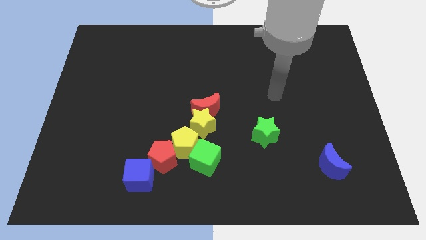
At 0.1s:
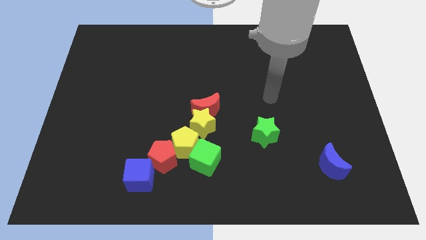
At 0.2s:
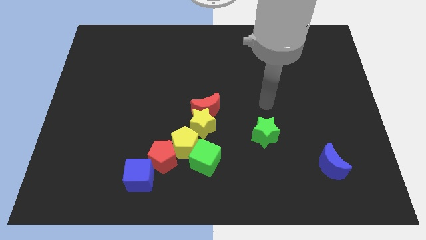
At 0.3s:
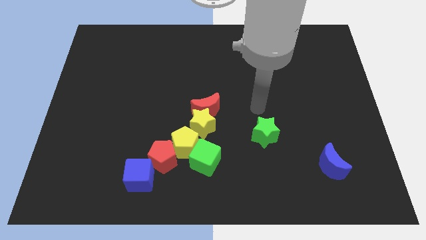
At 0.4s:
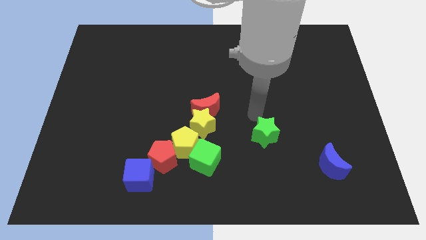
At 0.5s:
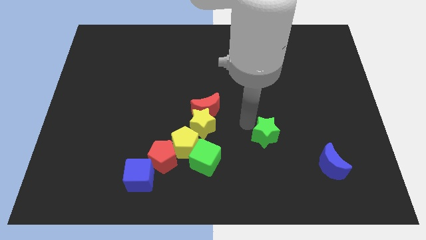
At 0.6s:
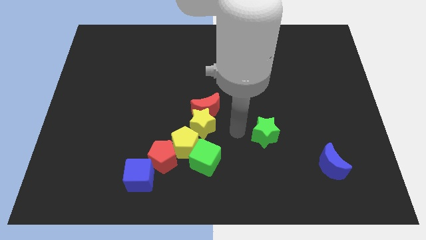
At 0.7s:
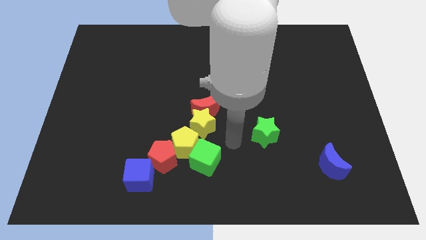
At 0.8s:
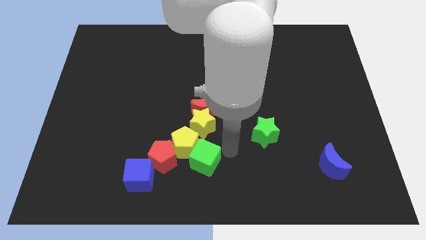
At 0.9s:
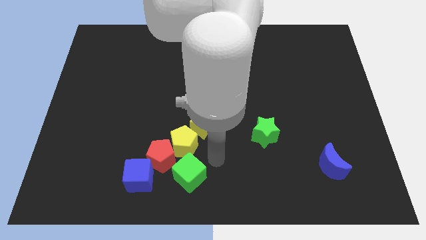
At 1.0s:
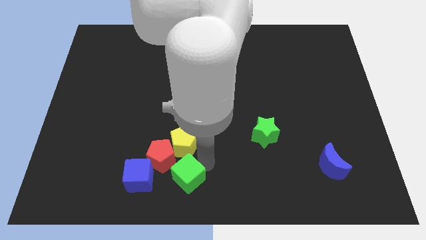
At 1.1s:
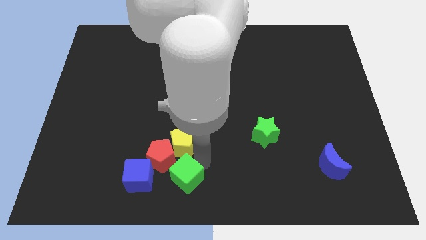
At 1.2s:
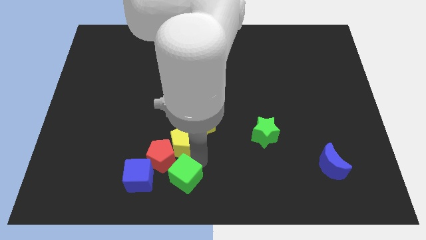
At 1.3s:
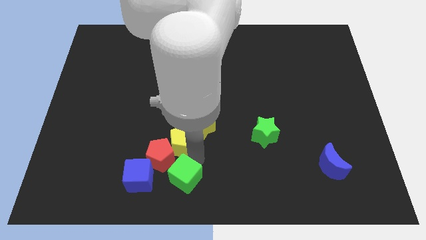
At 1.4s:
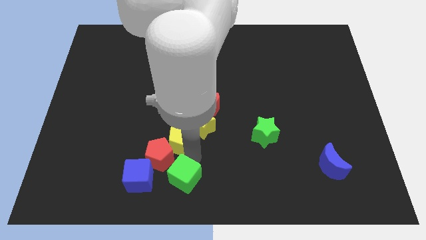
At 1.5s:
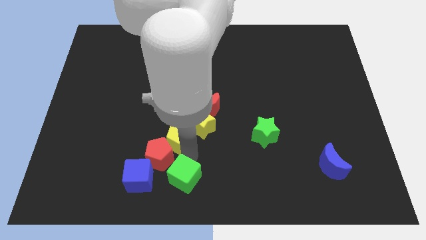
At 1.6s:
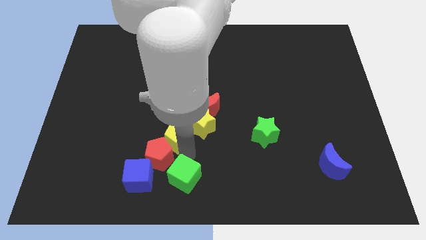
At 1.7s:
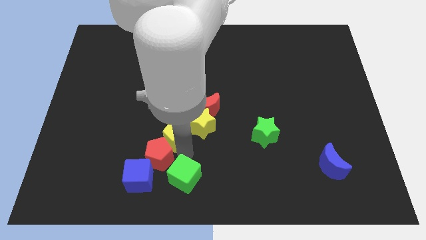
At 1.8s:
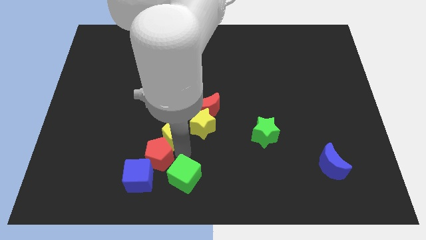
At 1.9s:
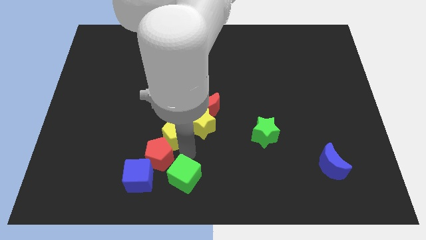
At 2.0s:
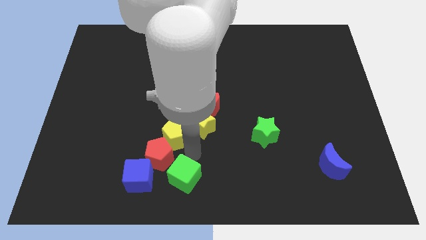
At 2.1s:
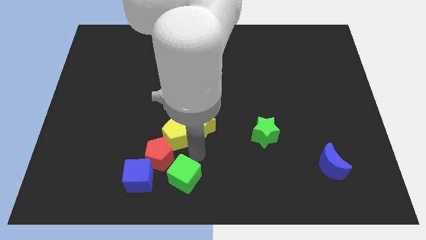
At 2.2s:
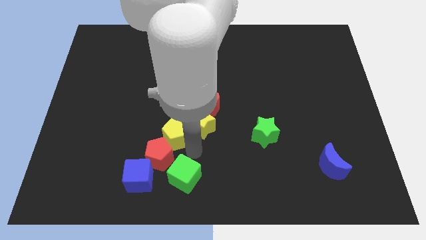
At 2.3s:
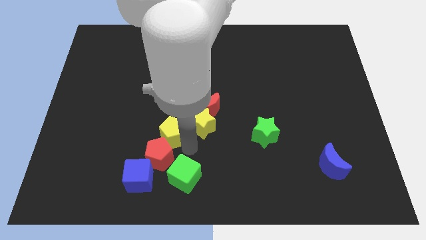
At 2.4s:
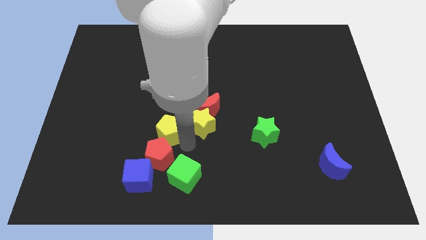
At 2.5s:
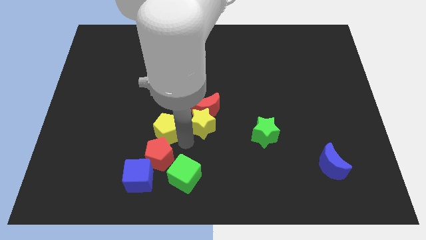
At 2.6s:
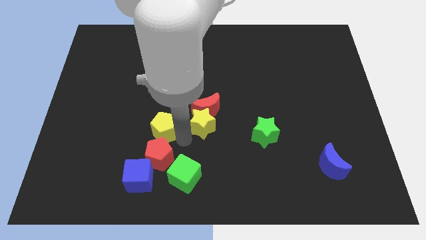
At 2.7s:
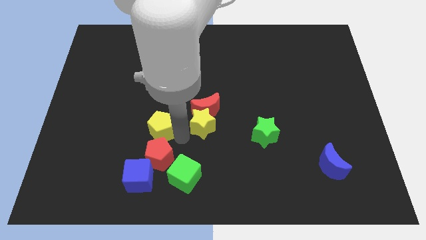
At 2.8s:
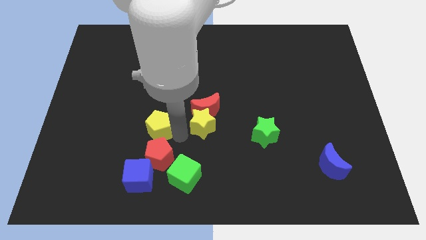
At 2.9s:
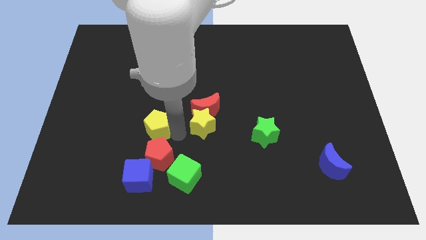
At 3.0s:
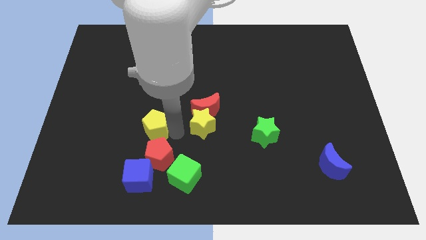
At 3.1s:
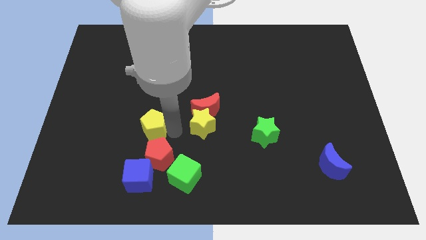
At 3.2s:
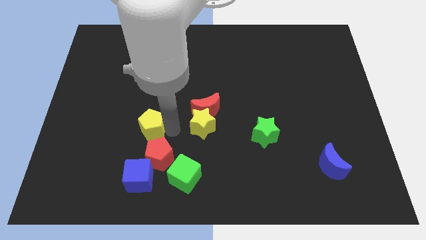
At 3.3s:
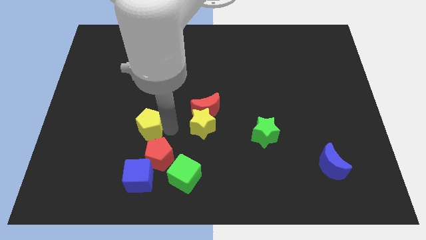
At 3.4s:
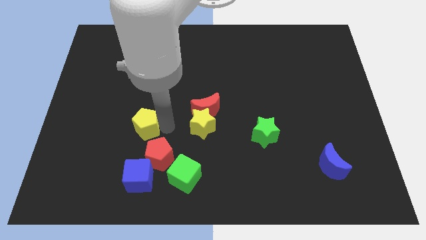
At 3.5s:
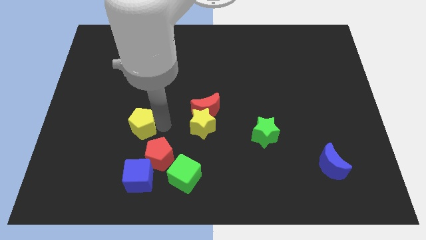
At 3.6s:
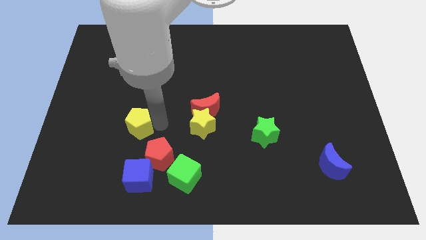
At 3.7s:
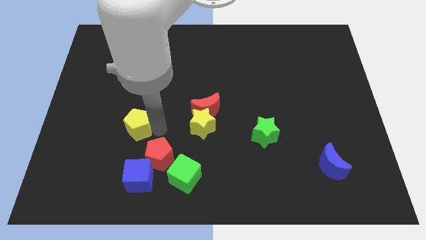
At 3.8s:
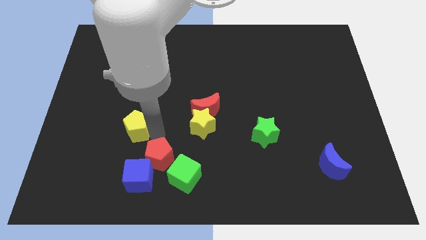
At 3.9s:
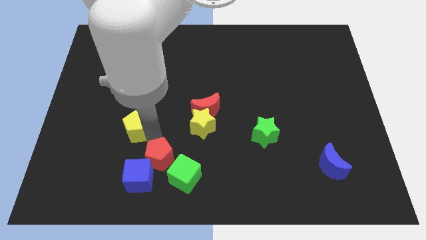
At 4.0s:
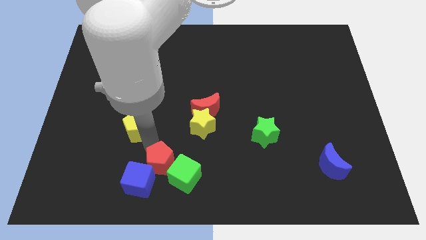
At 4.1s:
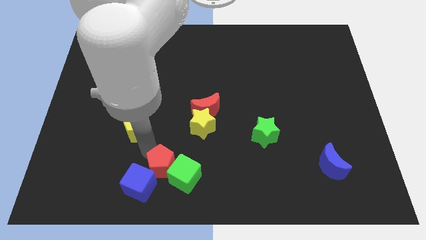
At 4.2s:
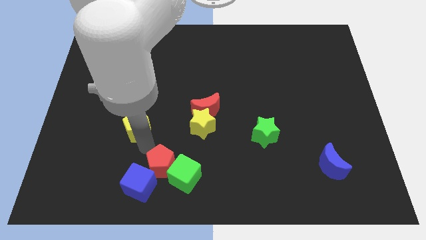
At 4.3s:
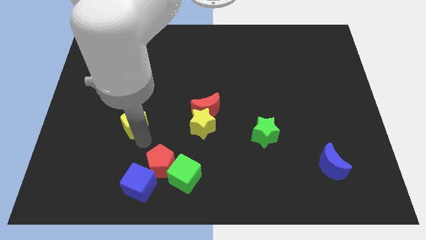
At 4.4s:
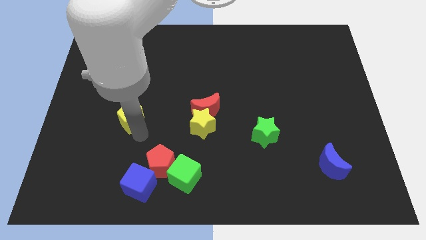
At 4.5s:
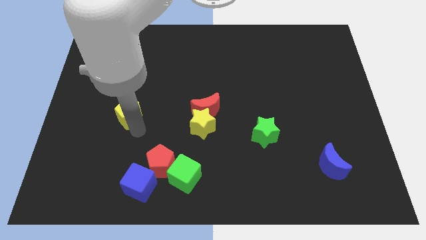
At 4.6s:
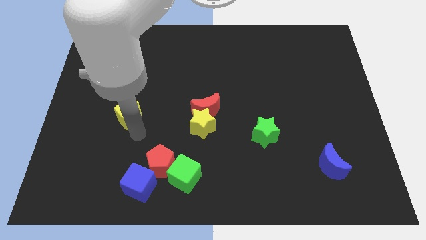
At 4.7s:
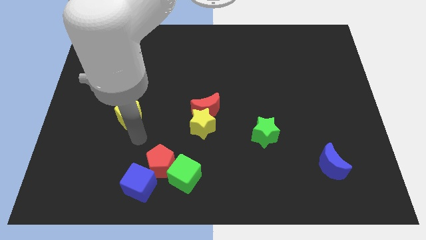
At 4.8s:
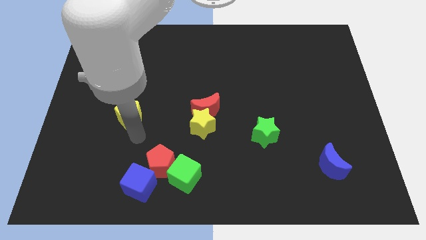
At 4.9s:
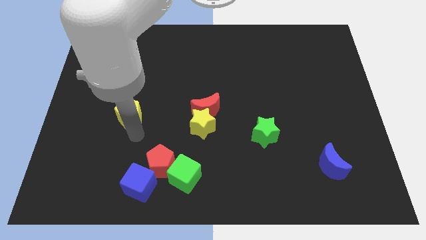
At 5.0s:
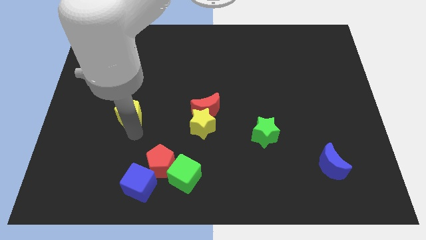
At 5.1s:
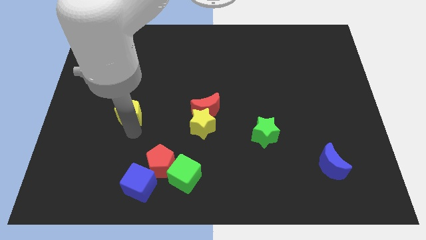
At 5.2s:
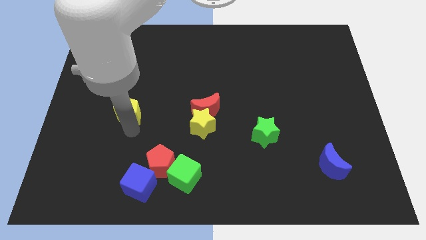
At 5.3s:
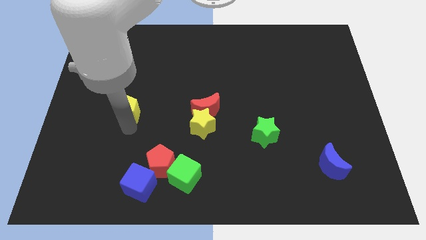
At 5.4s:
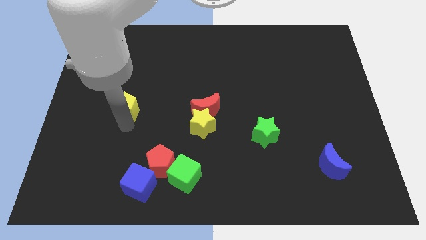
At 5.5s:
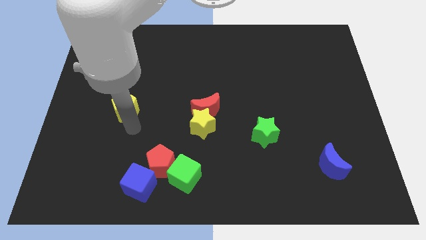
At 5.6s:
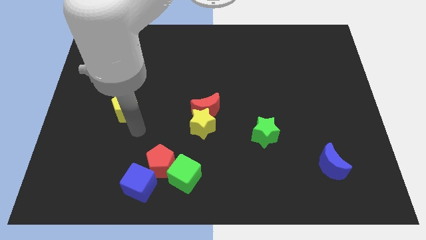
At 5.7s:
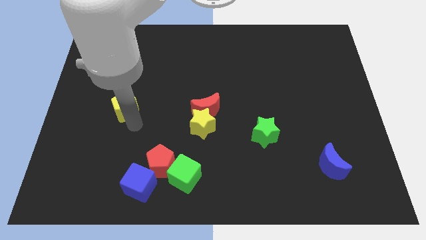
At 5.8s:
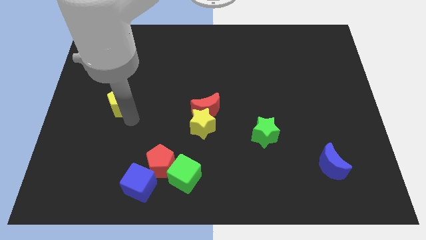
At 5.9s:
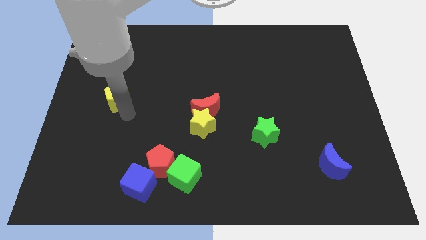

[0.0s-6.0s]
slide the yellow pentagon diagonally upwards and left

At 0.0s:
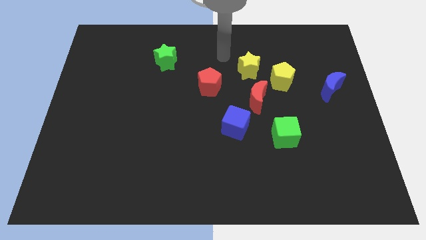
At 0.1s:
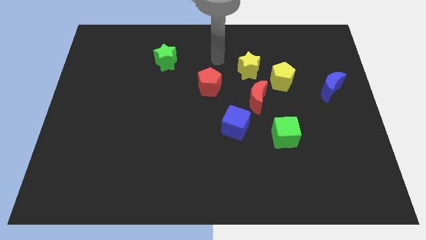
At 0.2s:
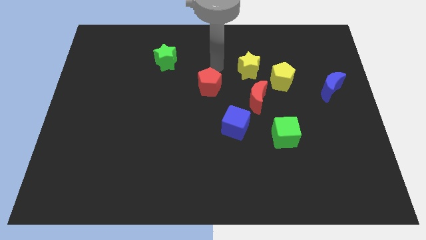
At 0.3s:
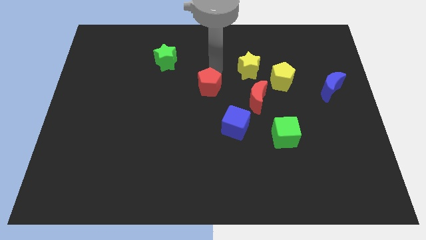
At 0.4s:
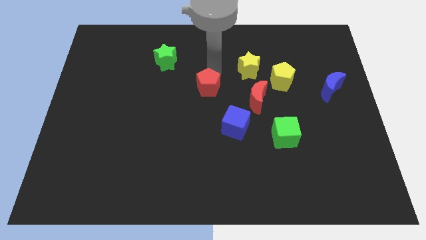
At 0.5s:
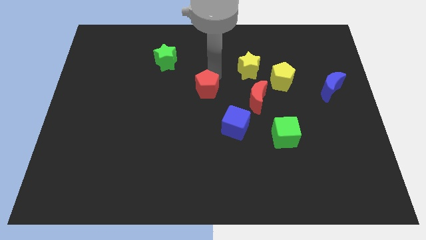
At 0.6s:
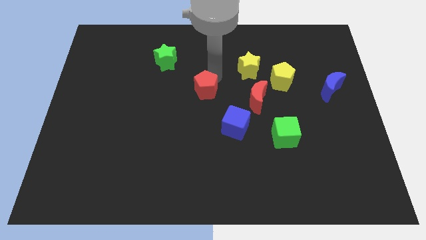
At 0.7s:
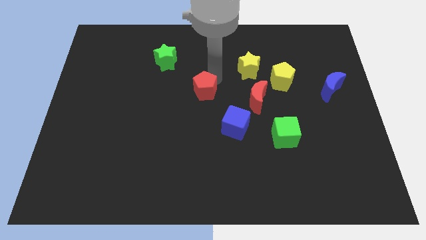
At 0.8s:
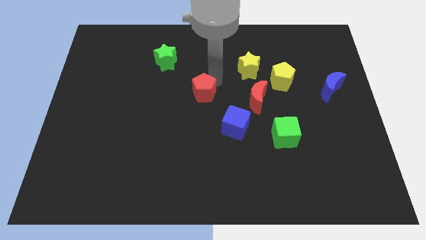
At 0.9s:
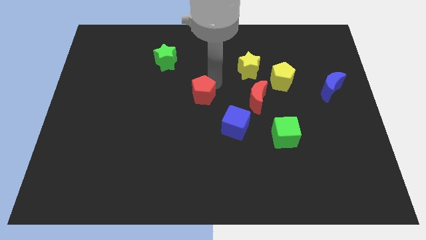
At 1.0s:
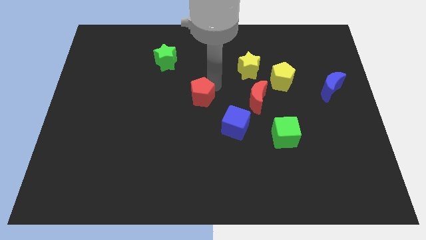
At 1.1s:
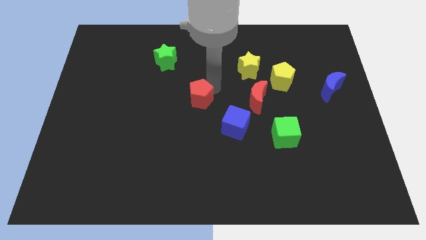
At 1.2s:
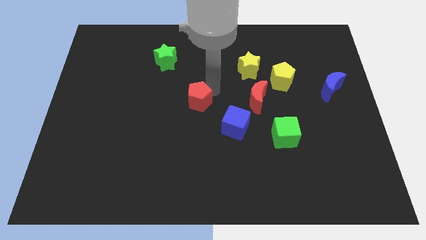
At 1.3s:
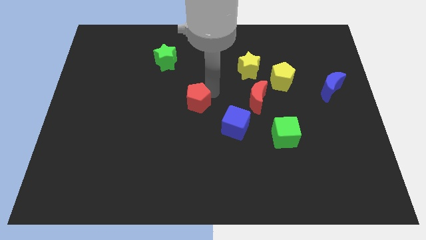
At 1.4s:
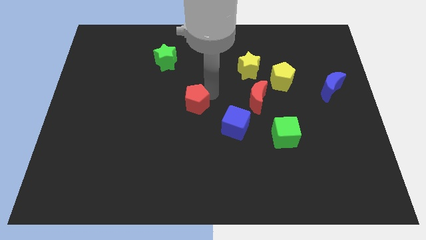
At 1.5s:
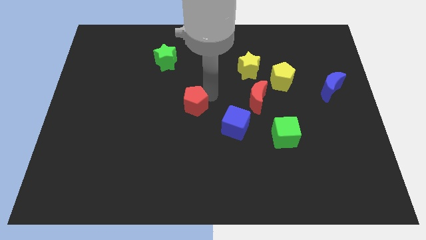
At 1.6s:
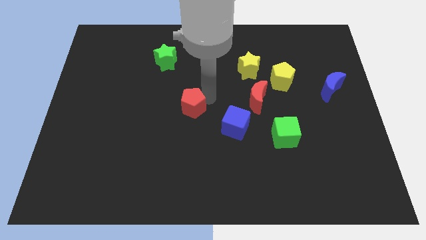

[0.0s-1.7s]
slightly move the red pentagon down and to the left diagonally

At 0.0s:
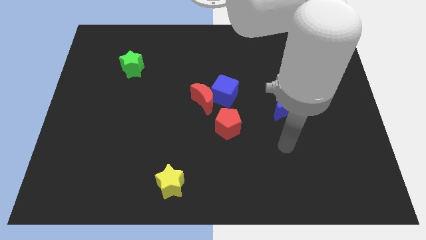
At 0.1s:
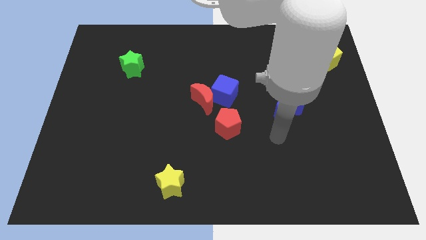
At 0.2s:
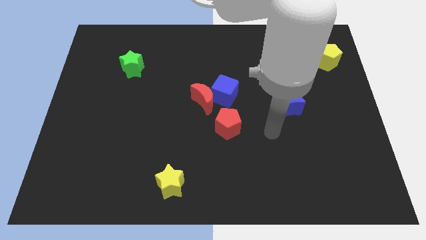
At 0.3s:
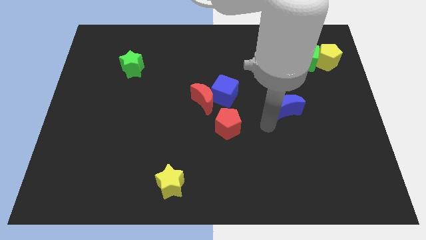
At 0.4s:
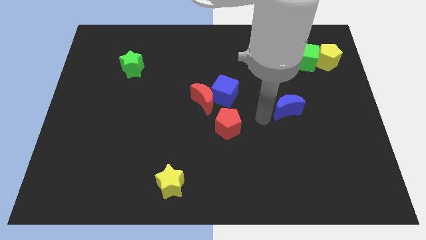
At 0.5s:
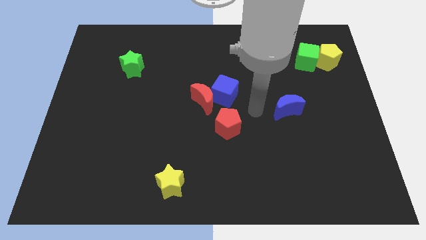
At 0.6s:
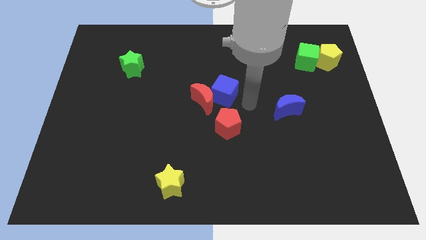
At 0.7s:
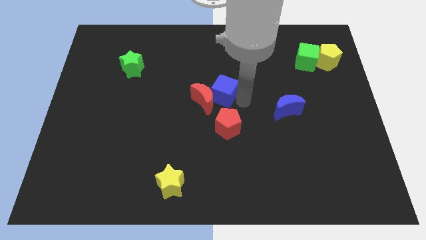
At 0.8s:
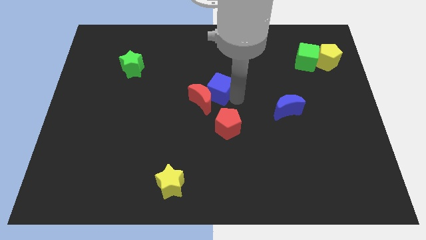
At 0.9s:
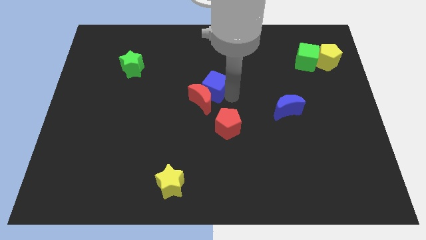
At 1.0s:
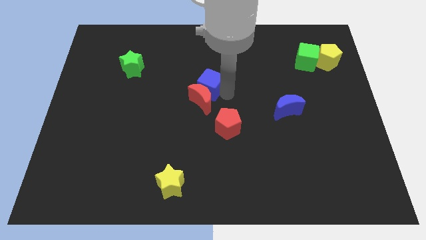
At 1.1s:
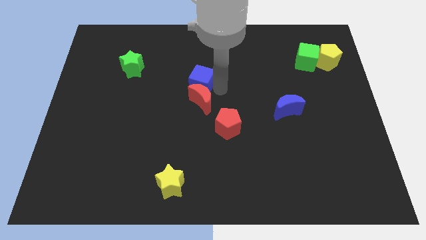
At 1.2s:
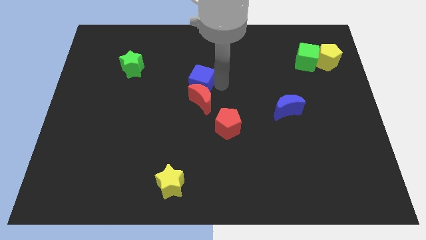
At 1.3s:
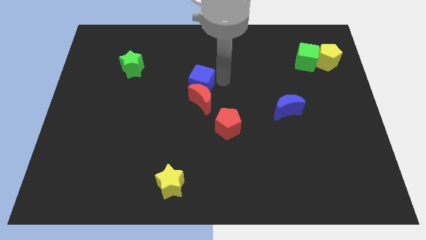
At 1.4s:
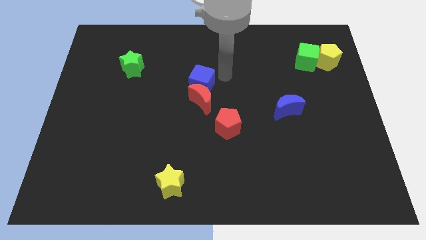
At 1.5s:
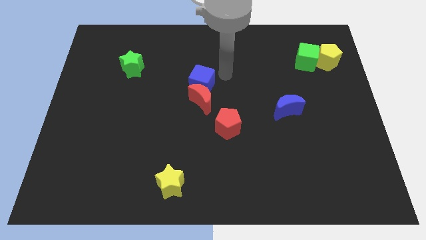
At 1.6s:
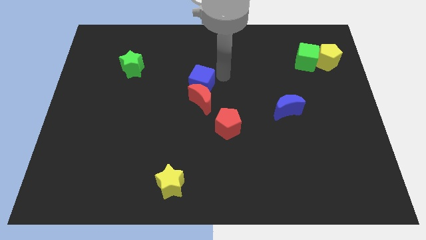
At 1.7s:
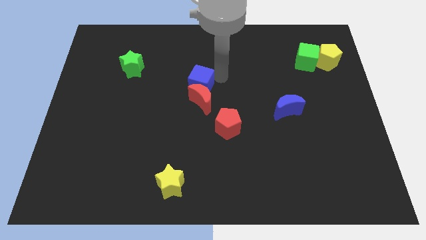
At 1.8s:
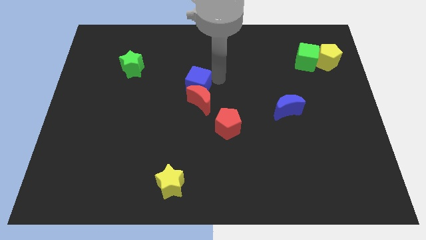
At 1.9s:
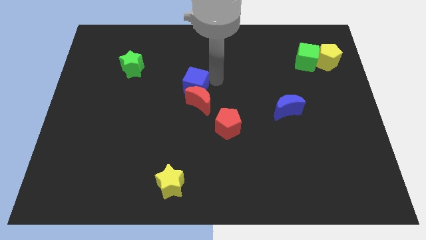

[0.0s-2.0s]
move the blue cube slightly to the left
